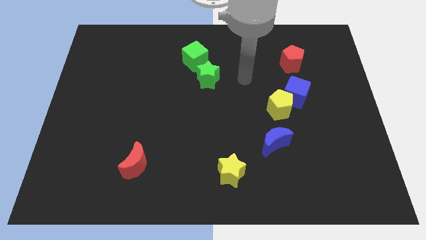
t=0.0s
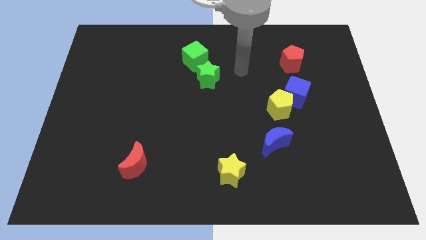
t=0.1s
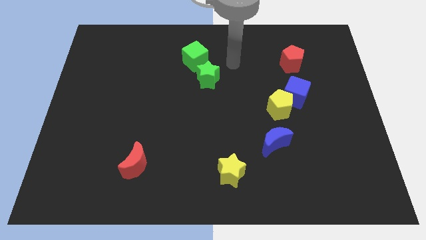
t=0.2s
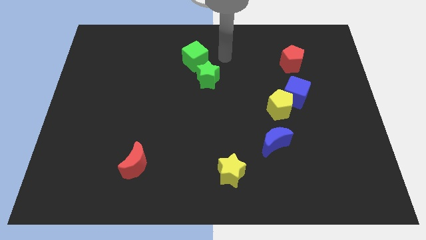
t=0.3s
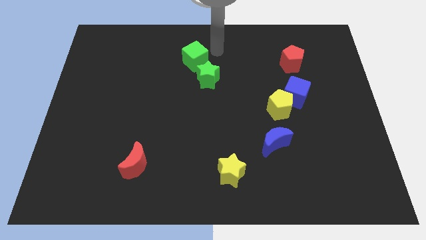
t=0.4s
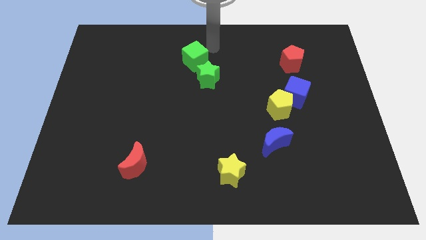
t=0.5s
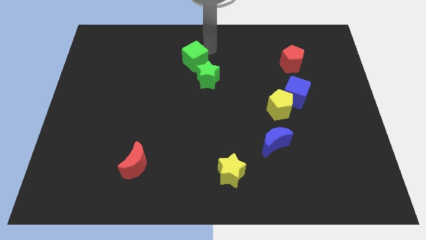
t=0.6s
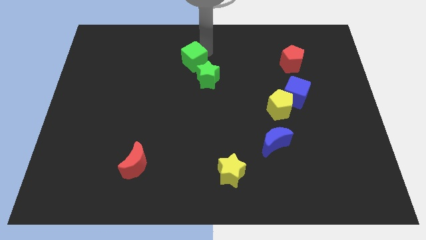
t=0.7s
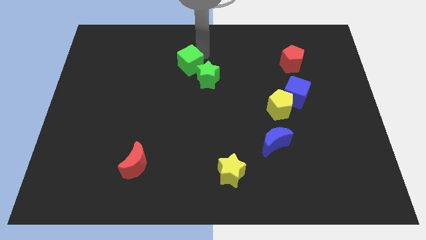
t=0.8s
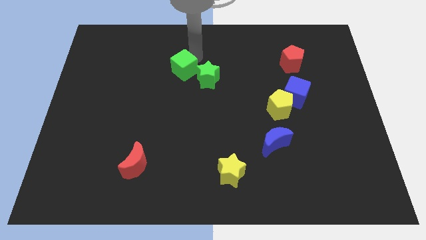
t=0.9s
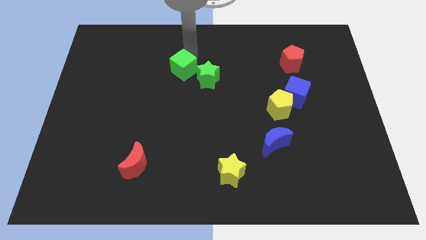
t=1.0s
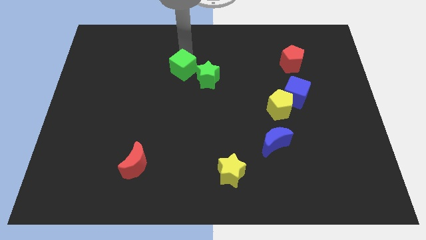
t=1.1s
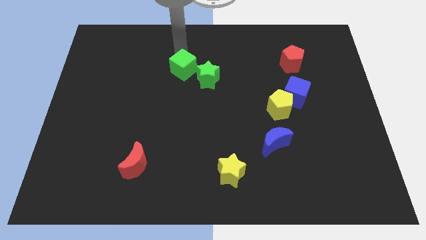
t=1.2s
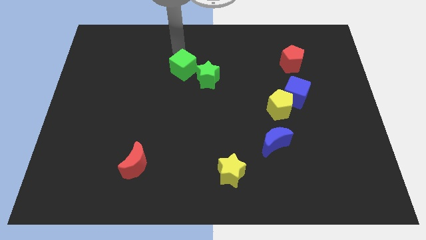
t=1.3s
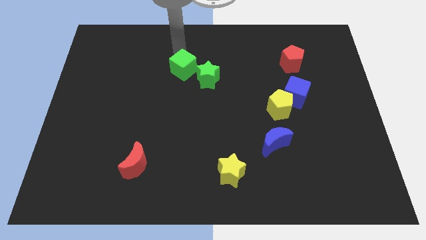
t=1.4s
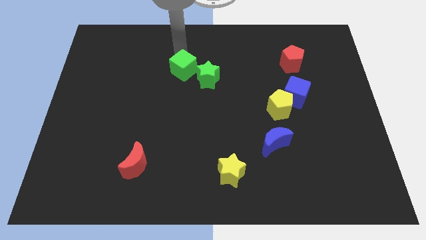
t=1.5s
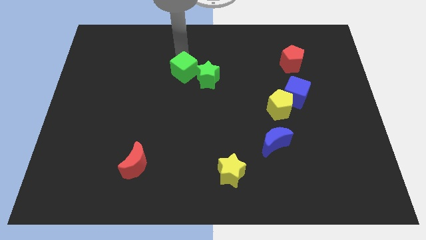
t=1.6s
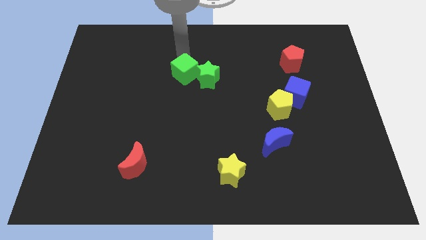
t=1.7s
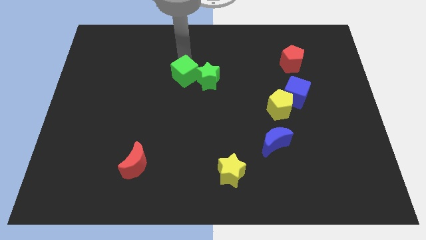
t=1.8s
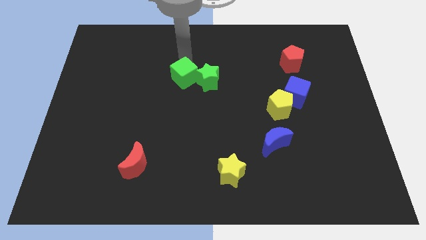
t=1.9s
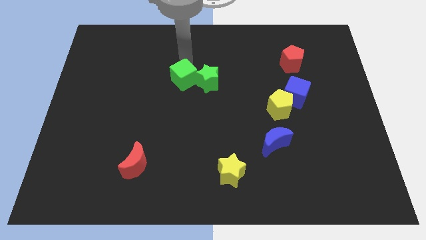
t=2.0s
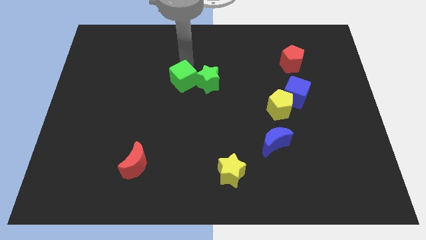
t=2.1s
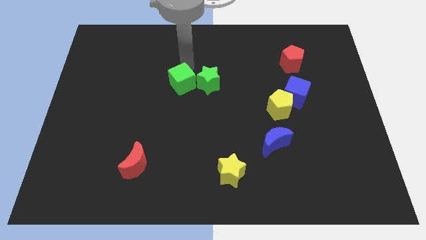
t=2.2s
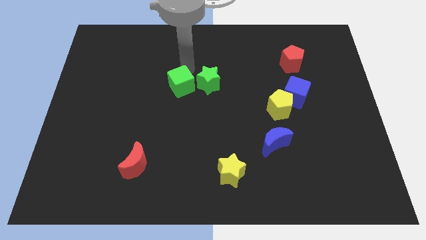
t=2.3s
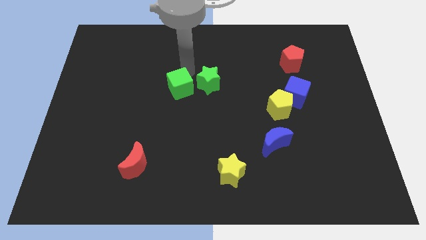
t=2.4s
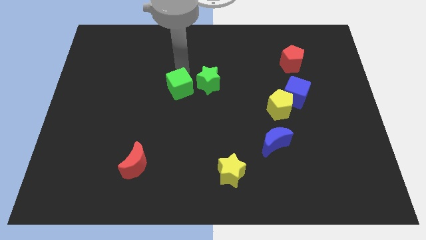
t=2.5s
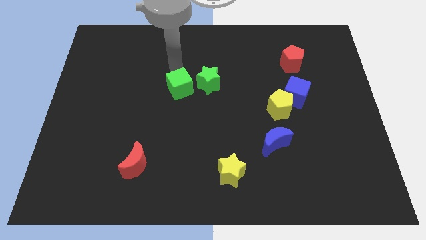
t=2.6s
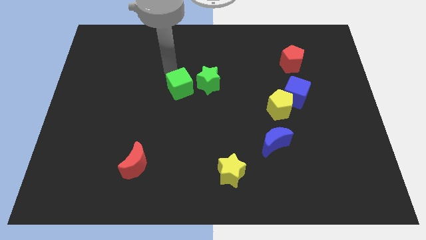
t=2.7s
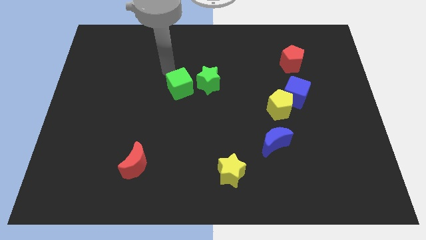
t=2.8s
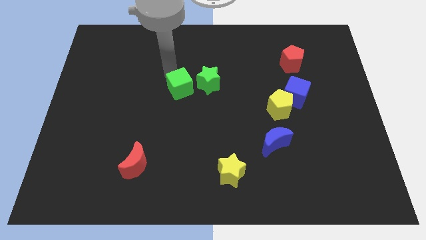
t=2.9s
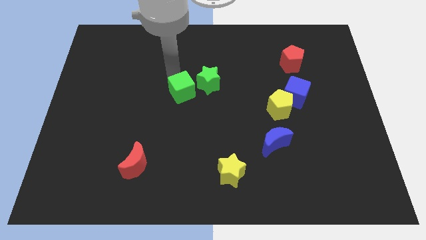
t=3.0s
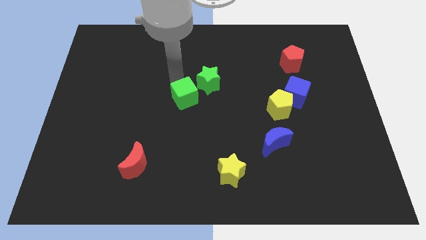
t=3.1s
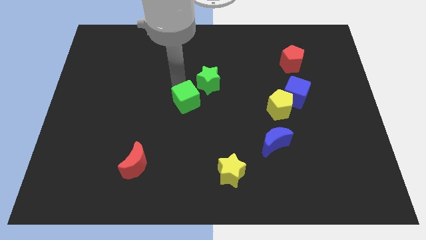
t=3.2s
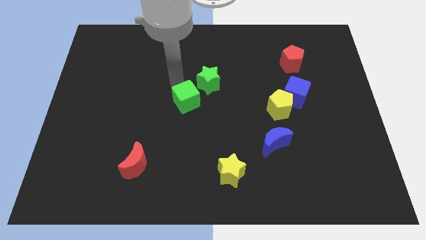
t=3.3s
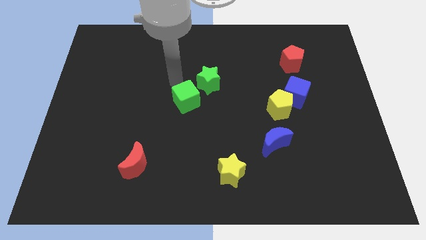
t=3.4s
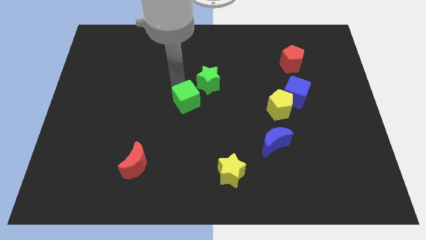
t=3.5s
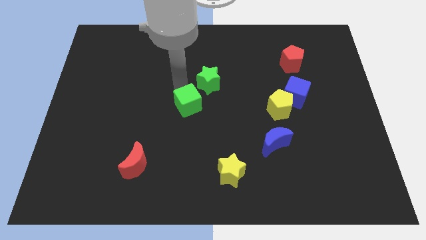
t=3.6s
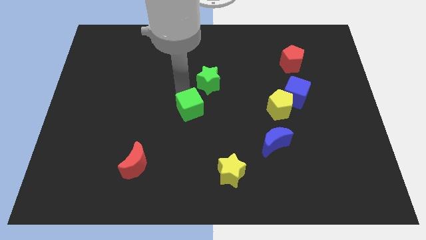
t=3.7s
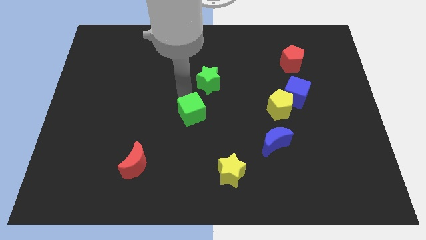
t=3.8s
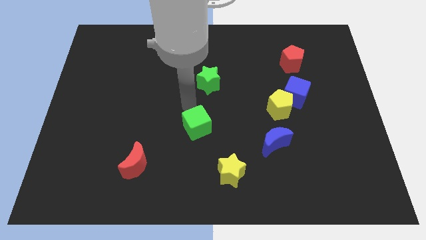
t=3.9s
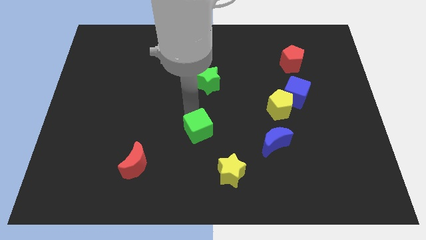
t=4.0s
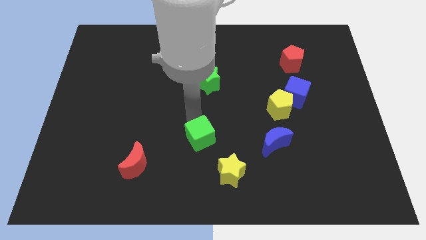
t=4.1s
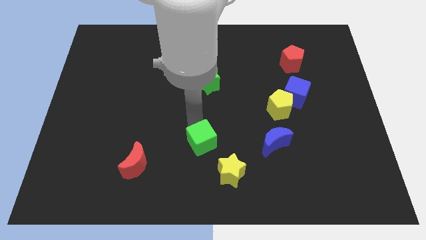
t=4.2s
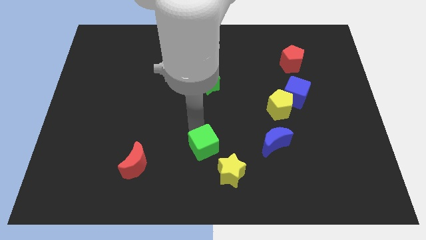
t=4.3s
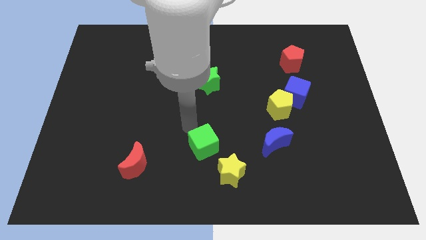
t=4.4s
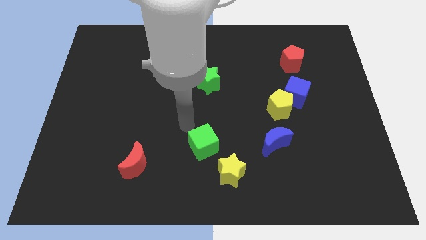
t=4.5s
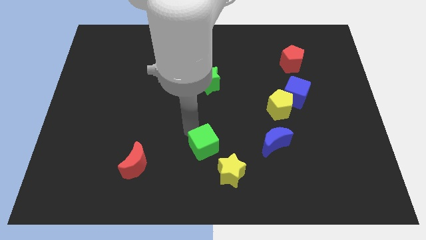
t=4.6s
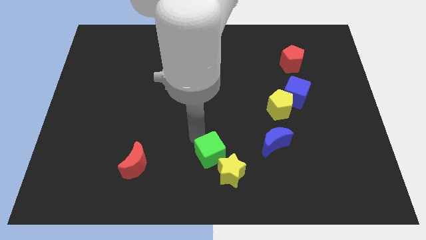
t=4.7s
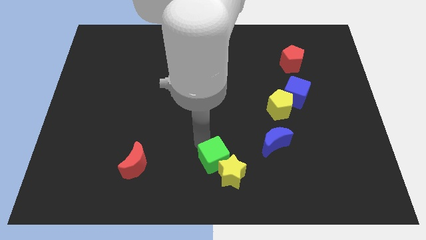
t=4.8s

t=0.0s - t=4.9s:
put the green cube next to the yellow star

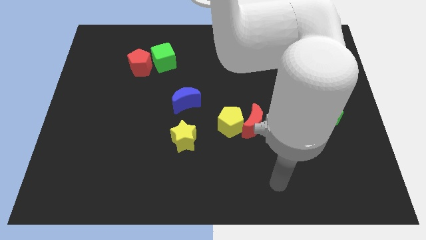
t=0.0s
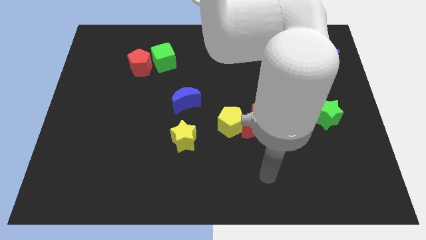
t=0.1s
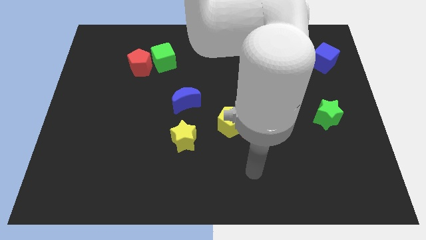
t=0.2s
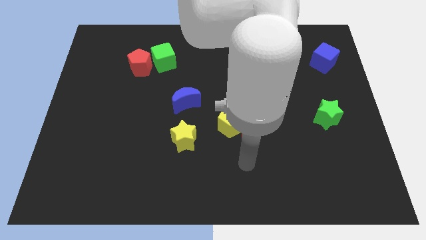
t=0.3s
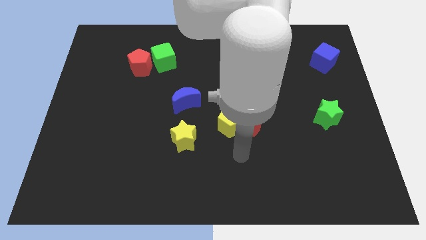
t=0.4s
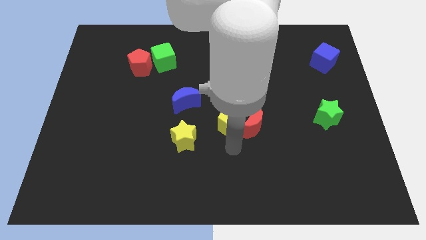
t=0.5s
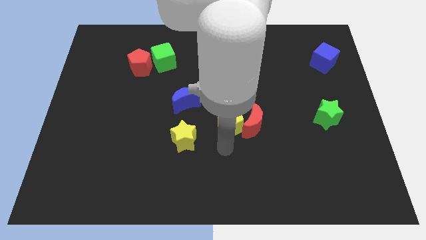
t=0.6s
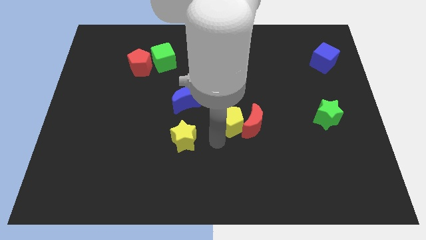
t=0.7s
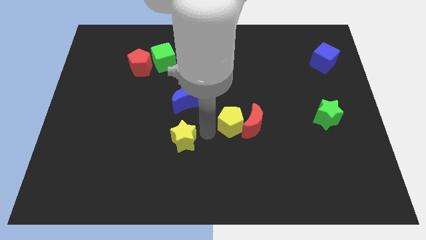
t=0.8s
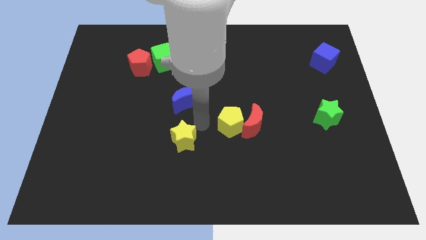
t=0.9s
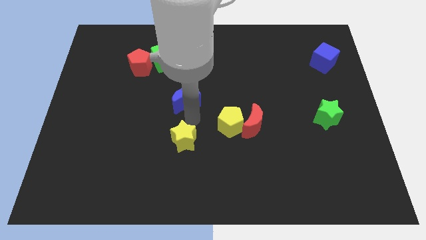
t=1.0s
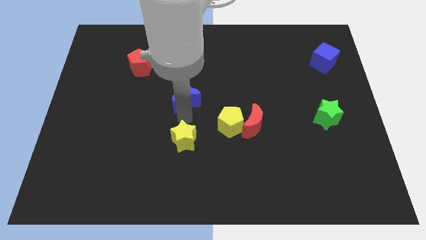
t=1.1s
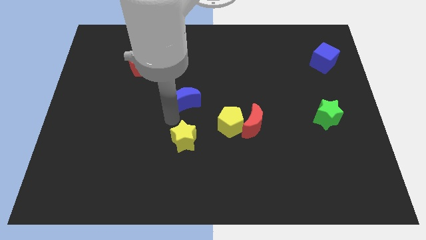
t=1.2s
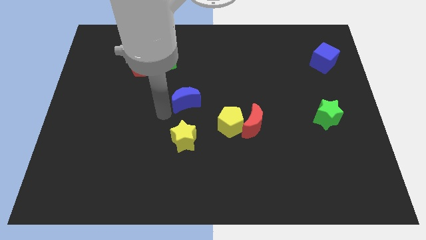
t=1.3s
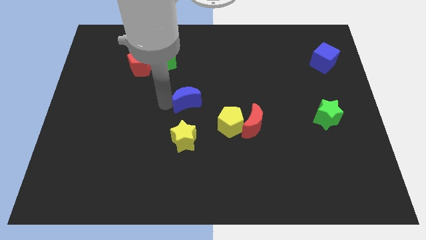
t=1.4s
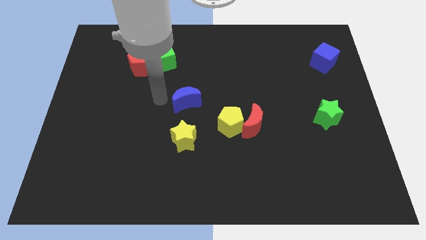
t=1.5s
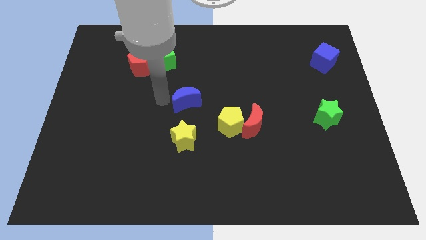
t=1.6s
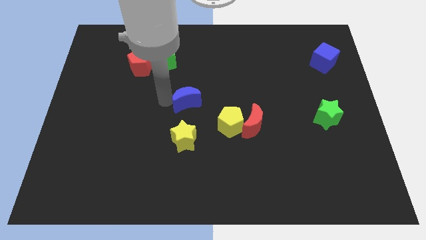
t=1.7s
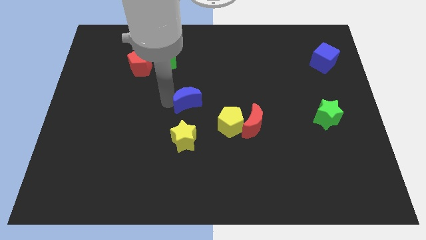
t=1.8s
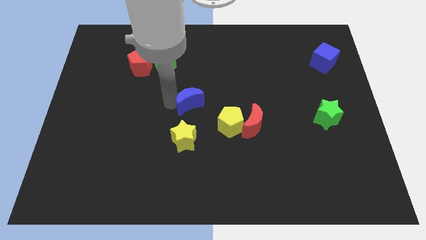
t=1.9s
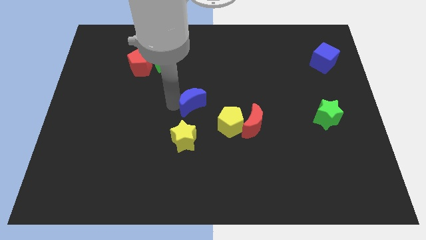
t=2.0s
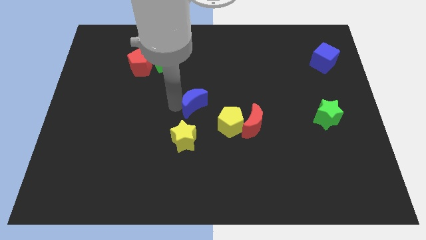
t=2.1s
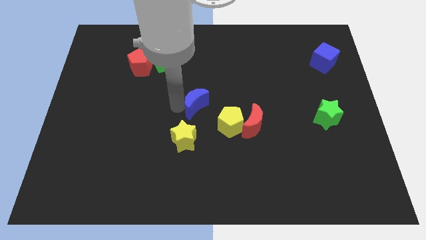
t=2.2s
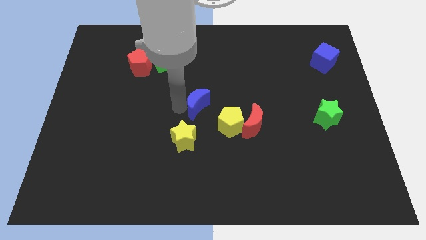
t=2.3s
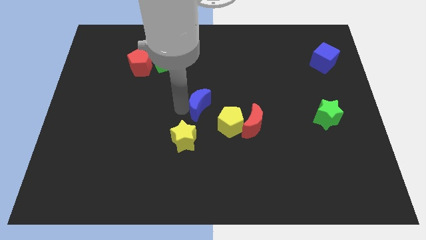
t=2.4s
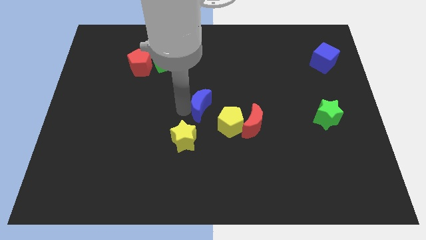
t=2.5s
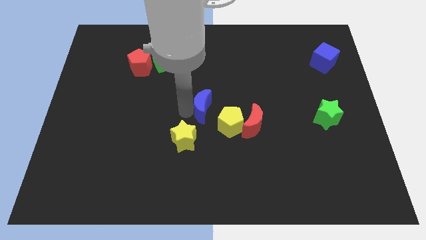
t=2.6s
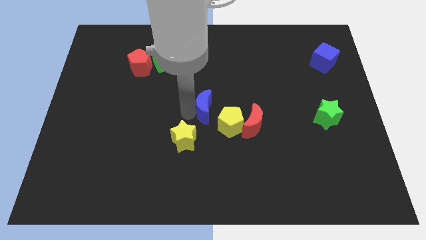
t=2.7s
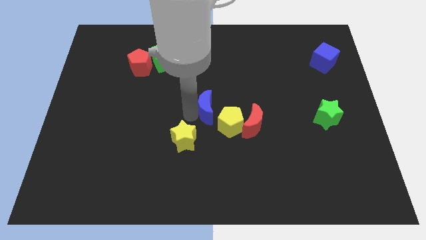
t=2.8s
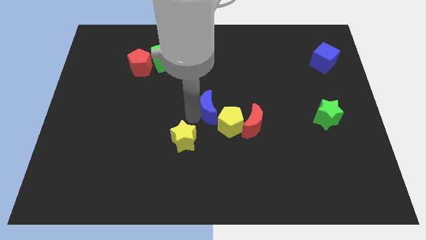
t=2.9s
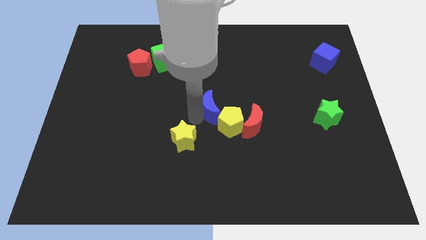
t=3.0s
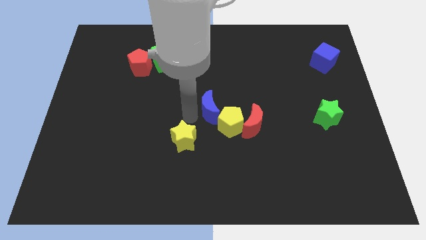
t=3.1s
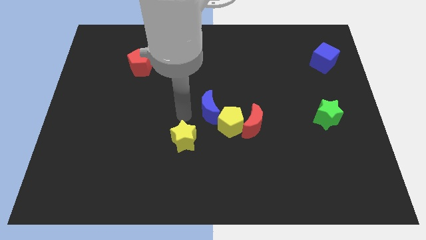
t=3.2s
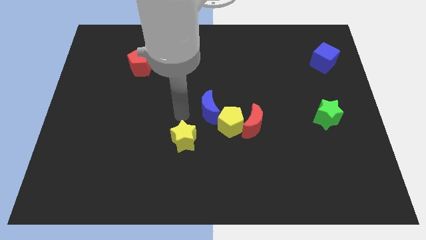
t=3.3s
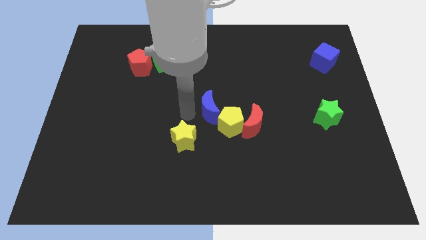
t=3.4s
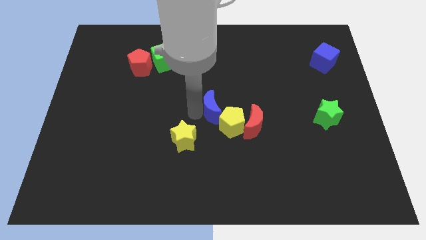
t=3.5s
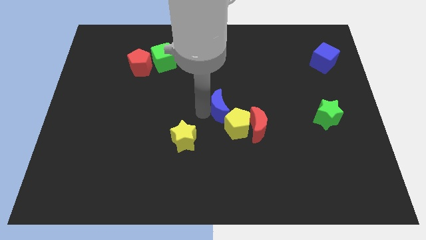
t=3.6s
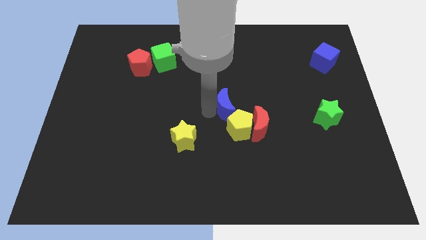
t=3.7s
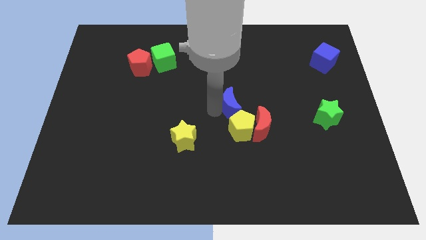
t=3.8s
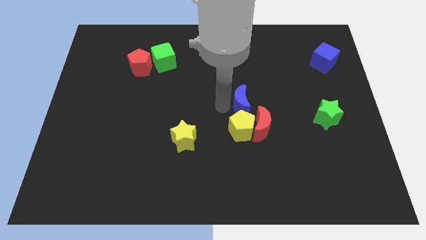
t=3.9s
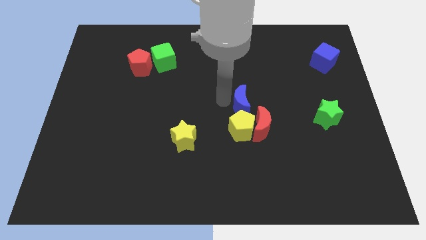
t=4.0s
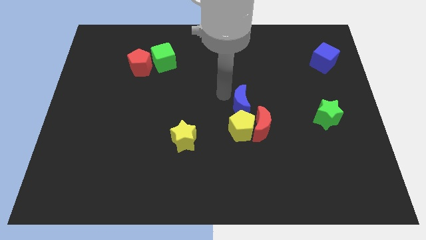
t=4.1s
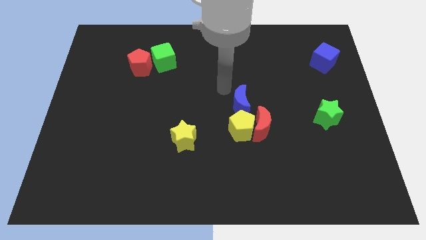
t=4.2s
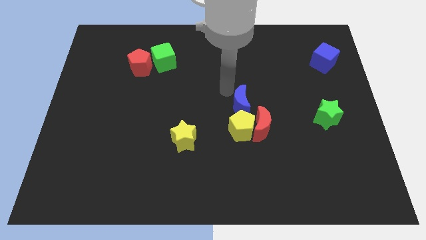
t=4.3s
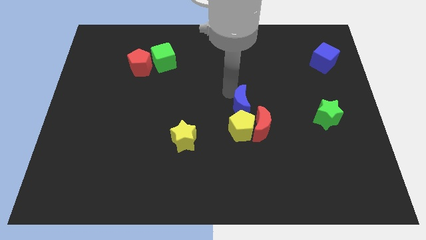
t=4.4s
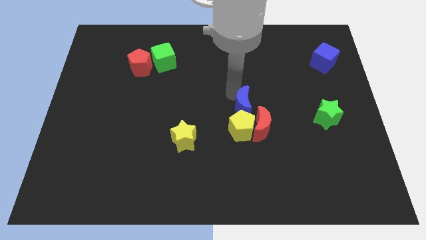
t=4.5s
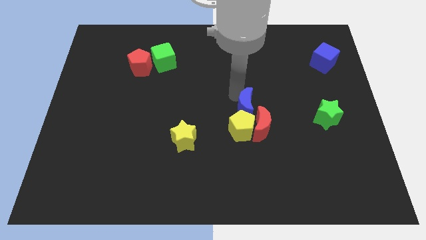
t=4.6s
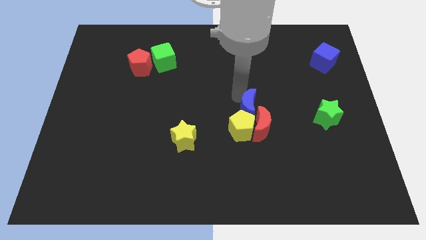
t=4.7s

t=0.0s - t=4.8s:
push the blue moon close to the red moon
